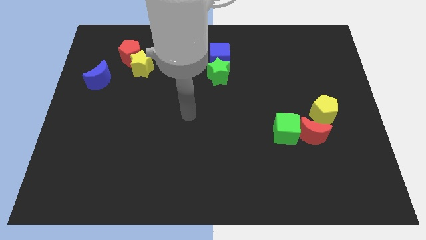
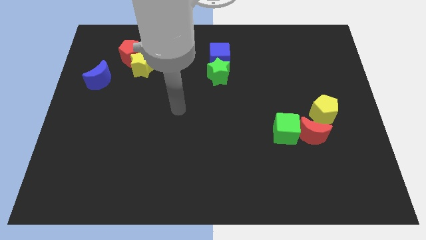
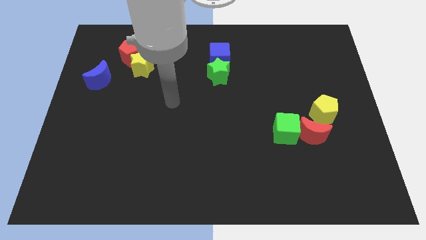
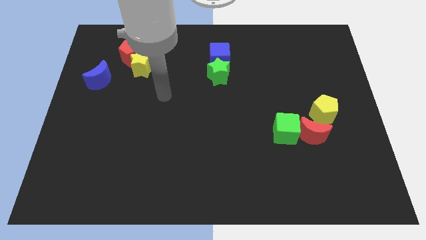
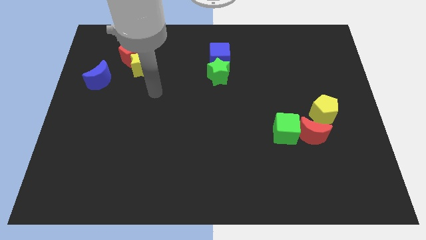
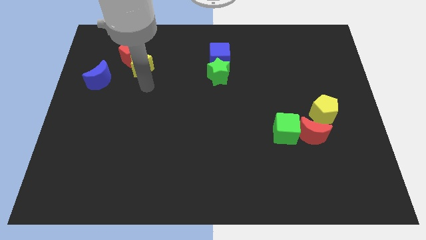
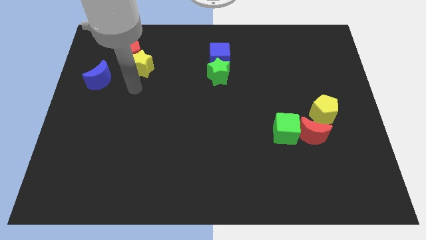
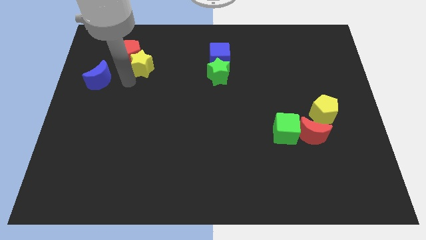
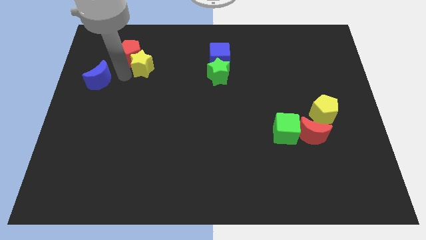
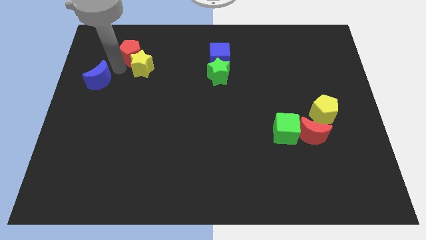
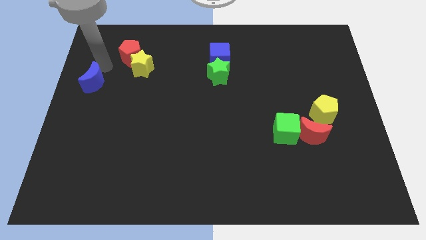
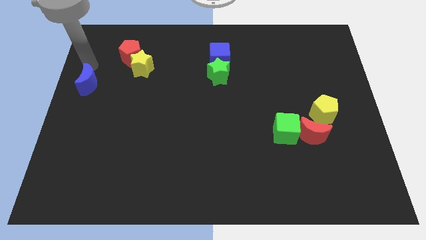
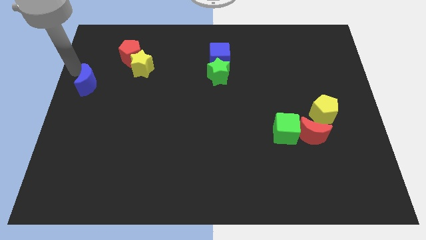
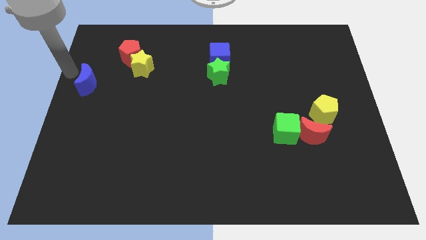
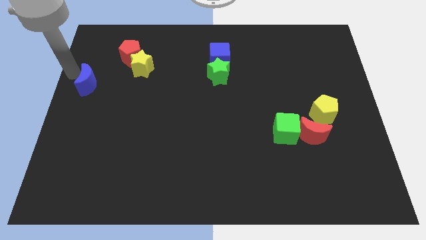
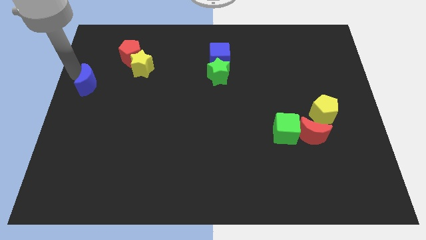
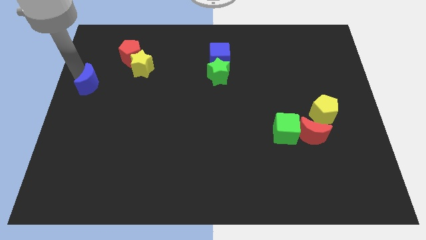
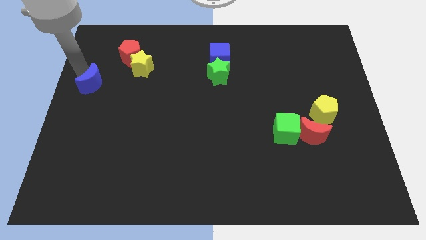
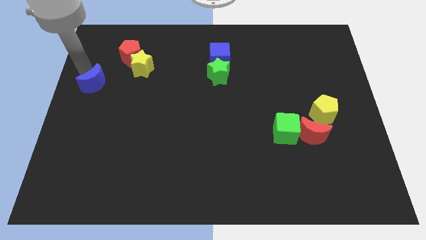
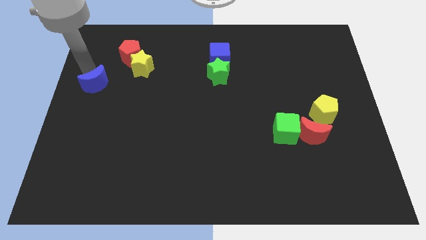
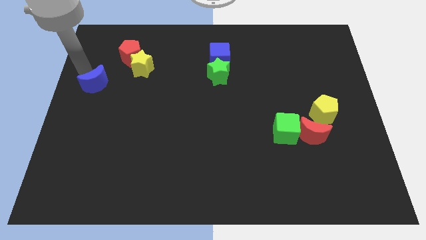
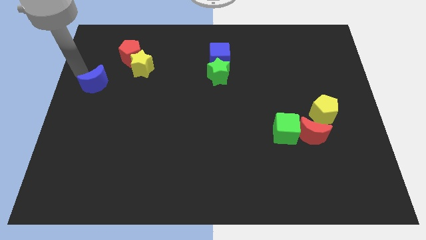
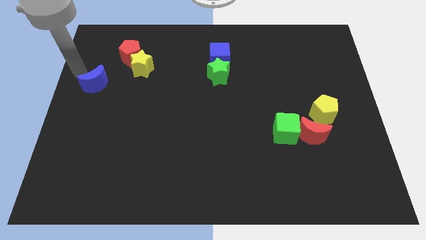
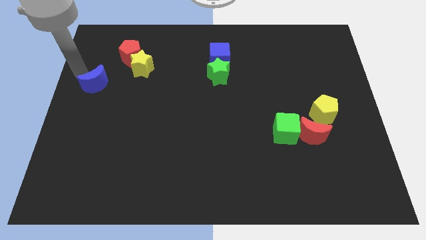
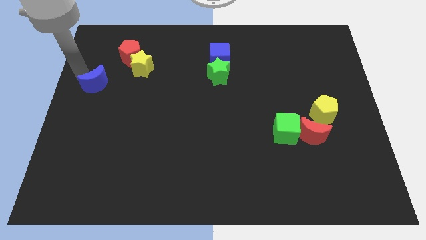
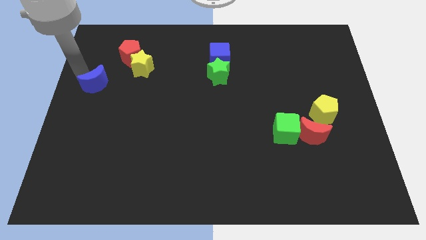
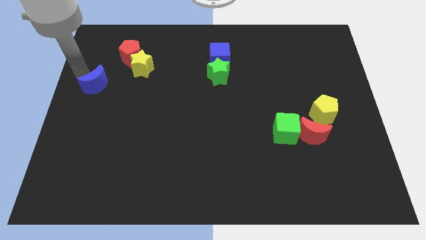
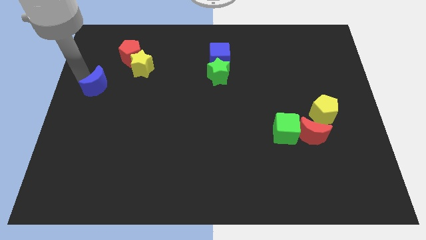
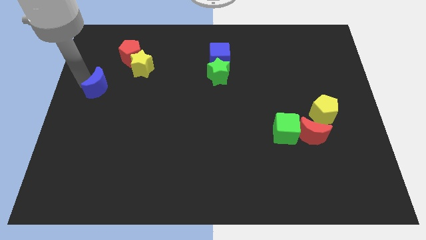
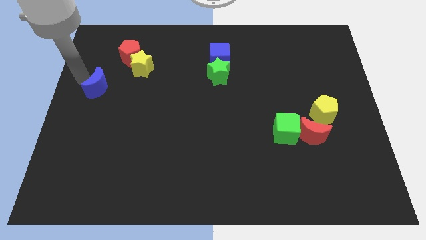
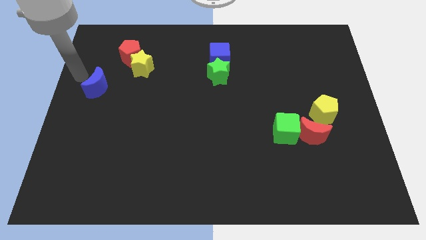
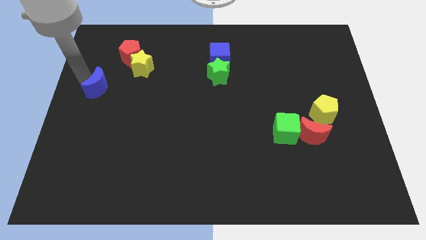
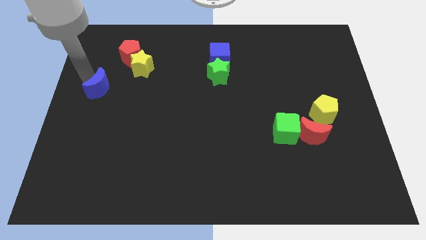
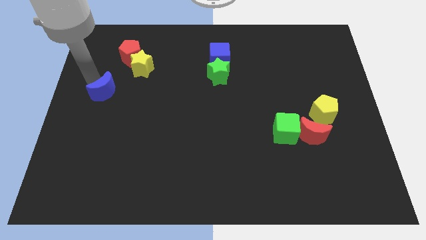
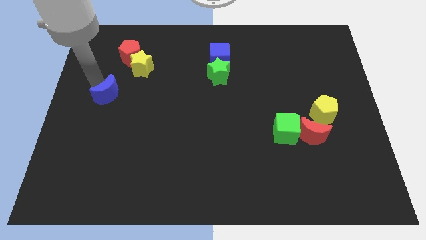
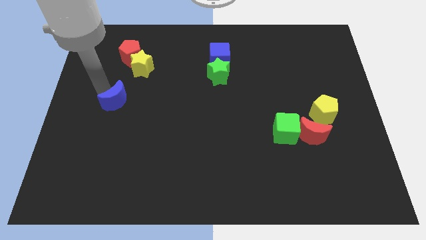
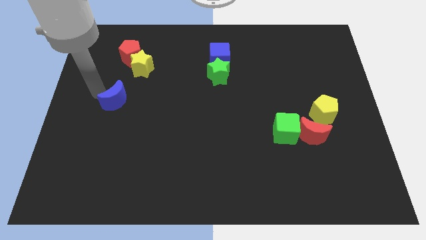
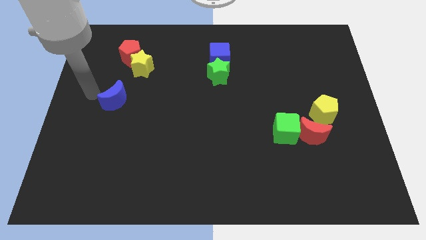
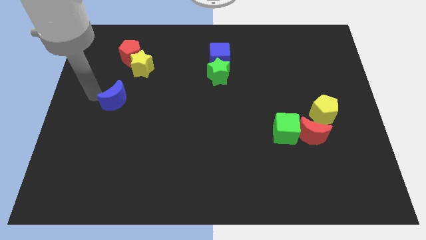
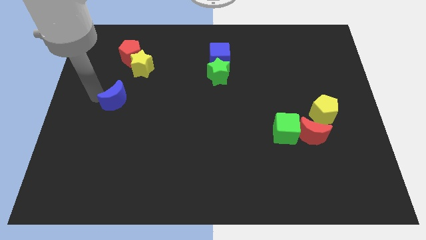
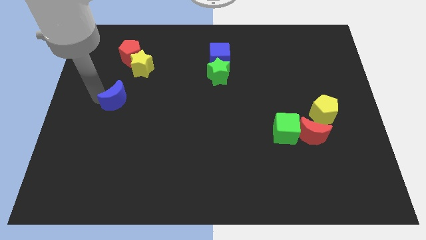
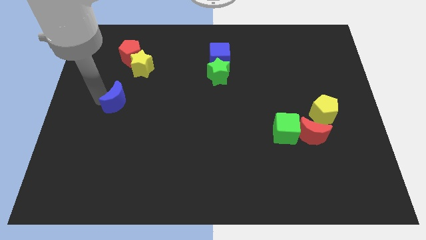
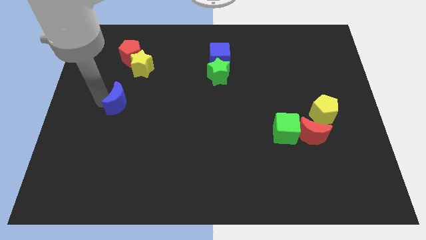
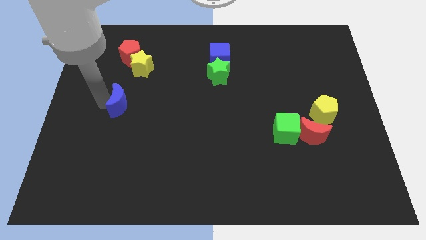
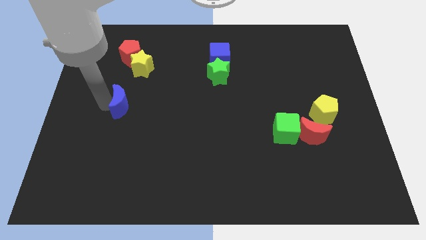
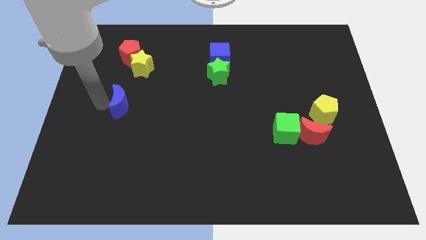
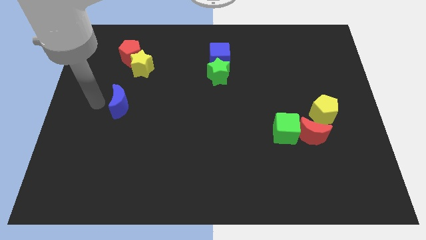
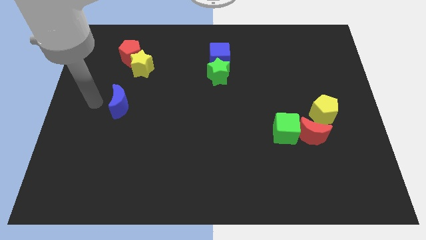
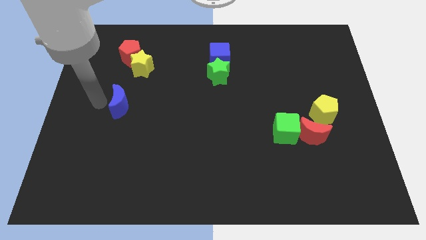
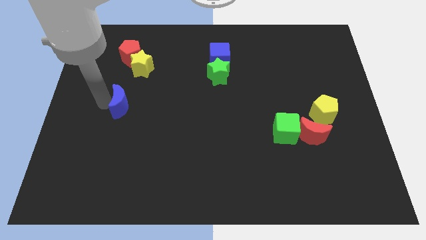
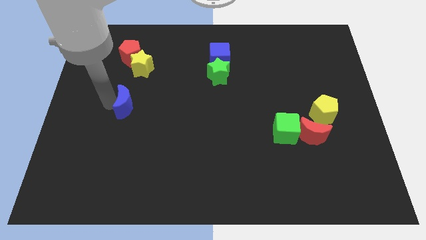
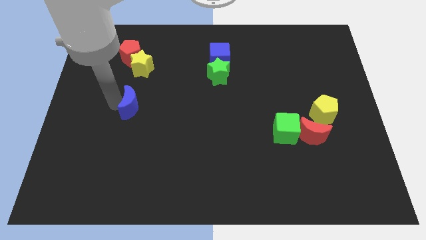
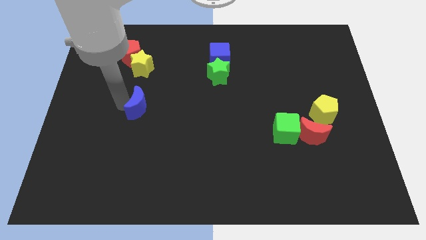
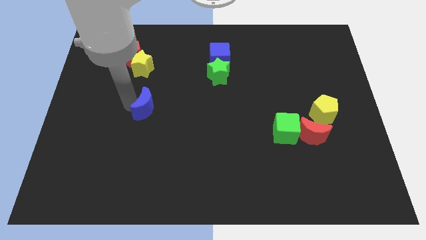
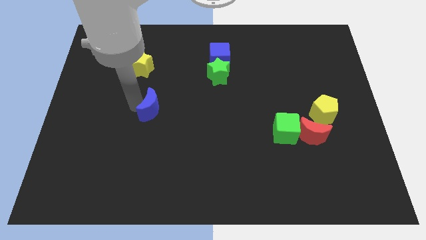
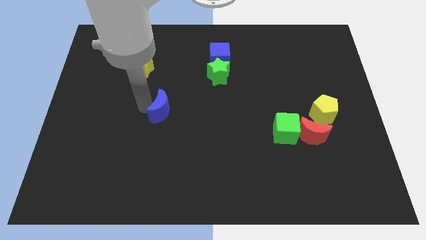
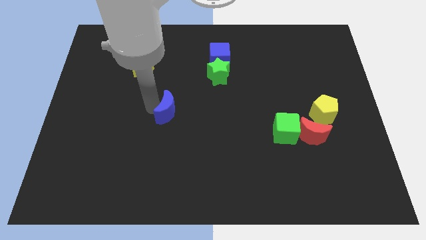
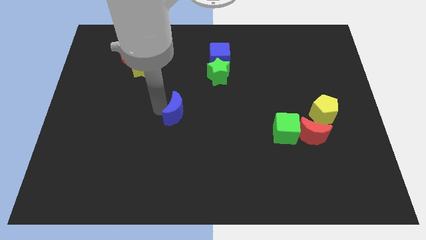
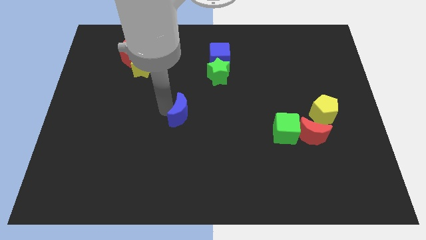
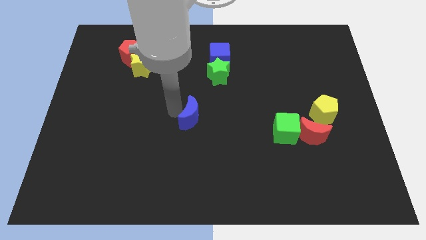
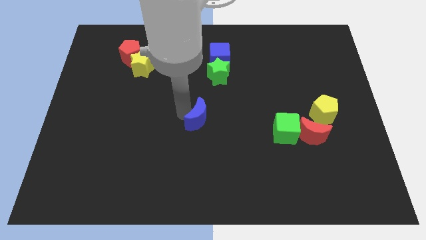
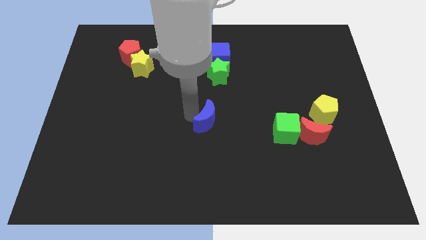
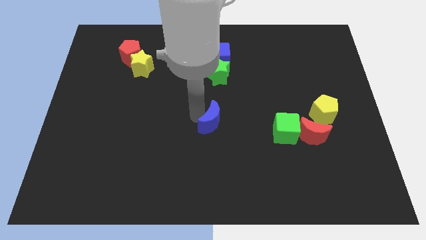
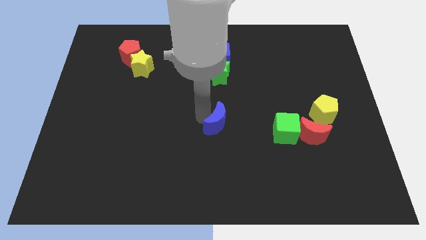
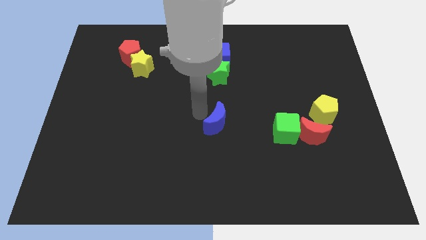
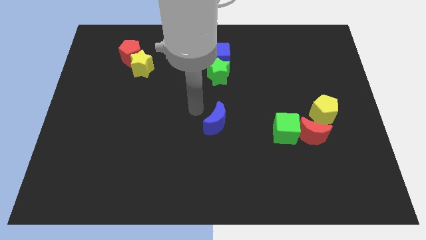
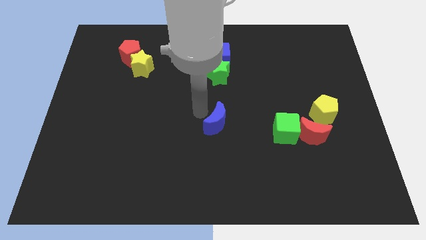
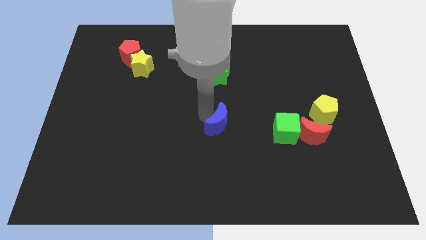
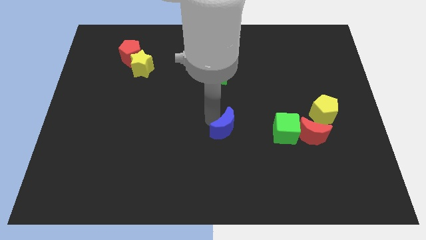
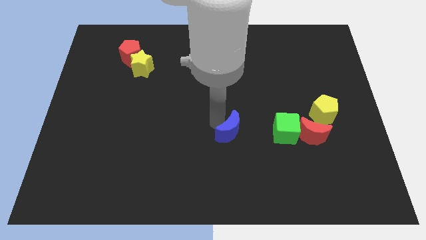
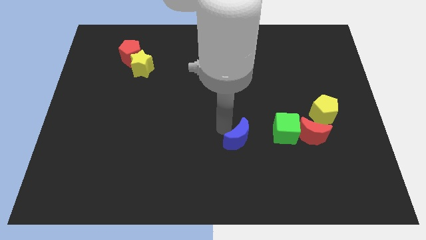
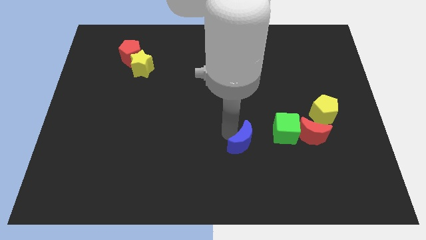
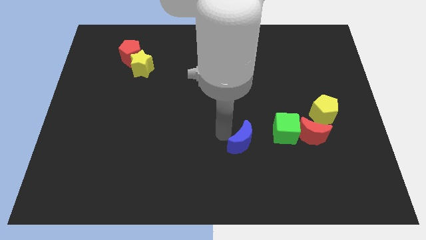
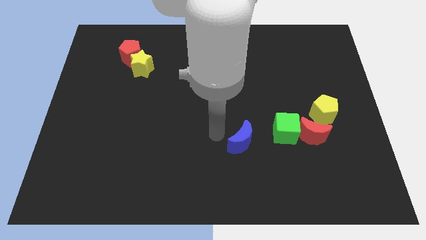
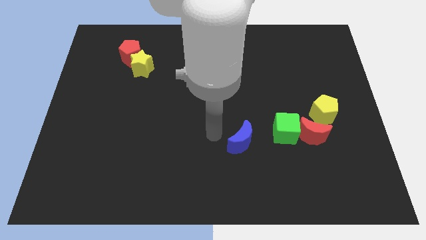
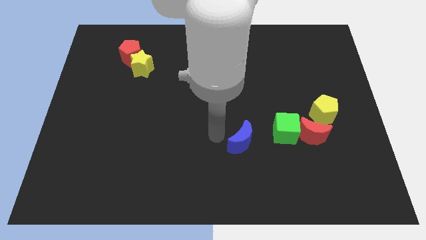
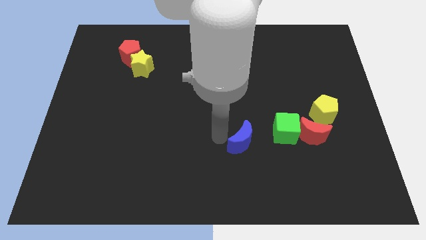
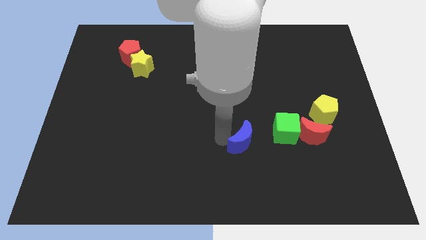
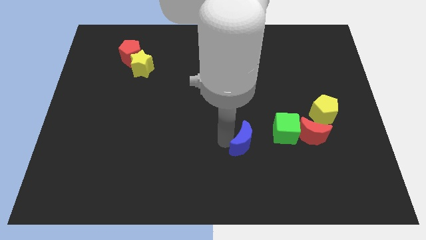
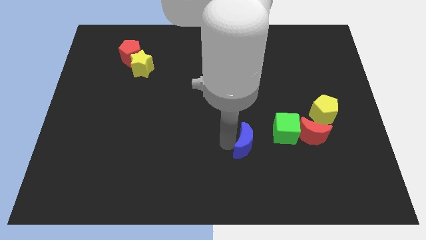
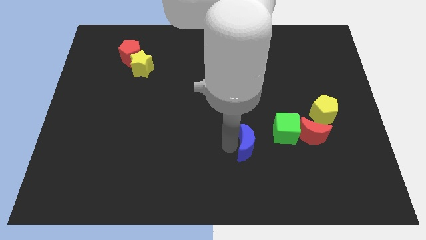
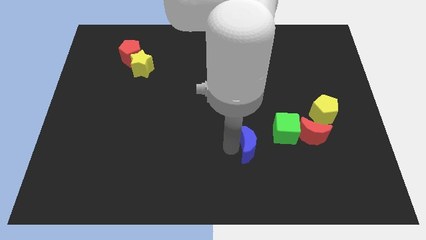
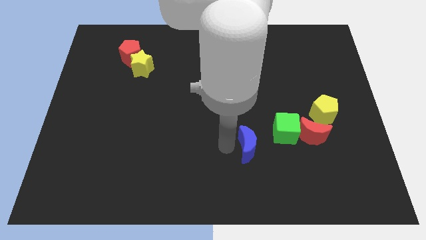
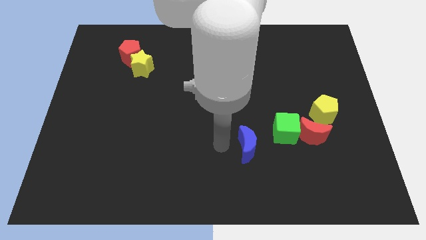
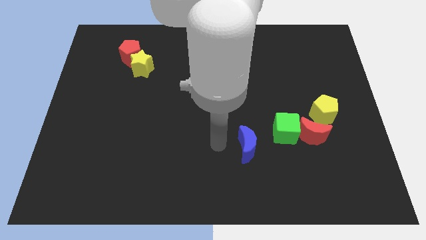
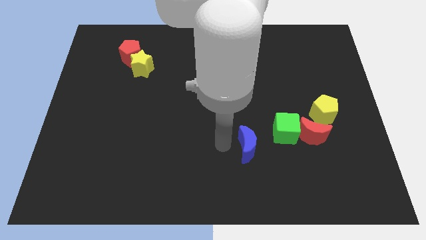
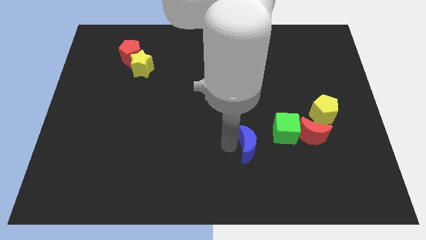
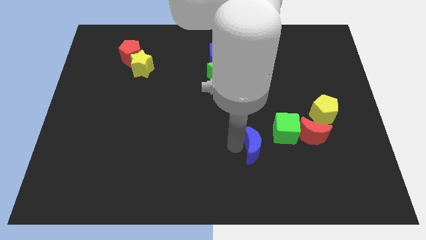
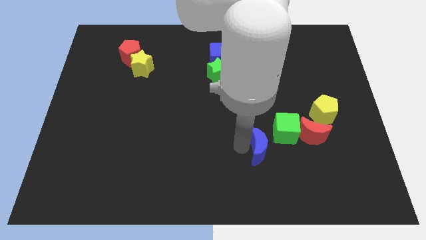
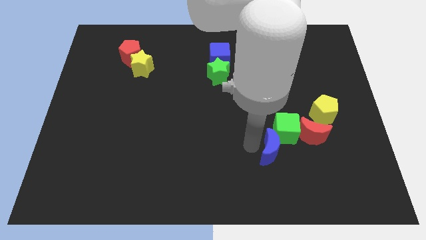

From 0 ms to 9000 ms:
push the blue moon to the bottom of the green cube
